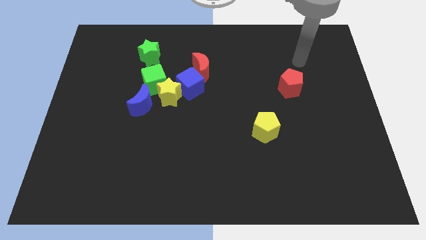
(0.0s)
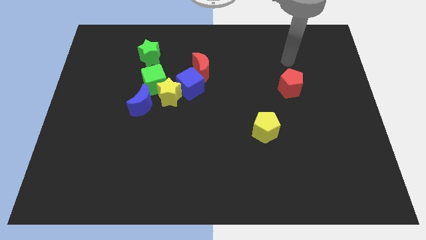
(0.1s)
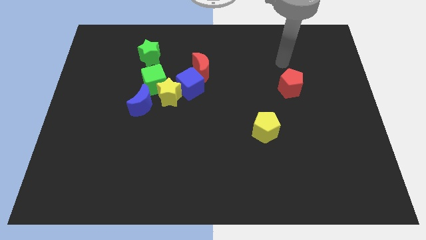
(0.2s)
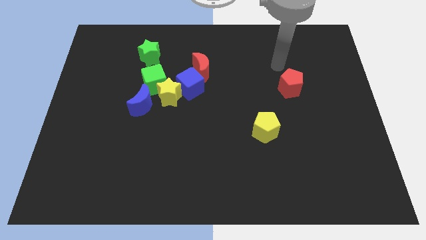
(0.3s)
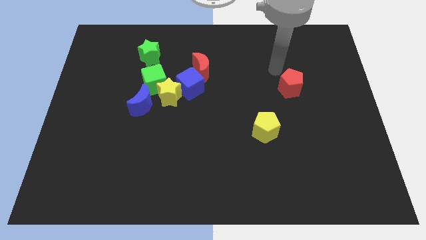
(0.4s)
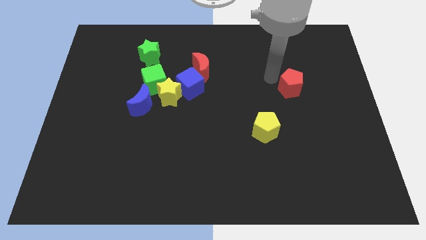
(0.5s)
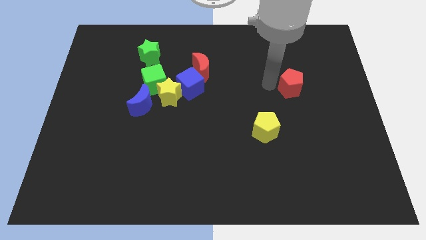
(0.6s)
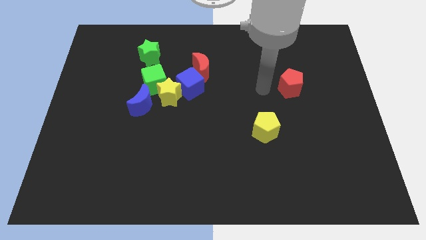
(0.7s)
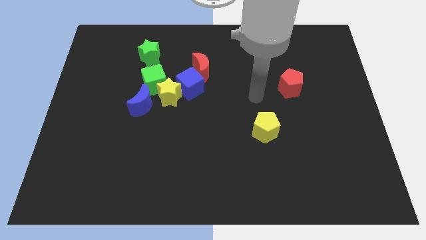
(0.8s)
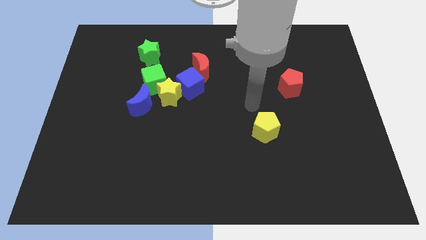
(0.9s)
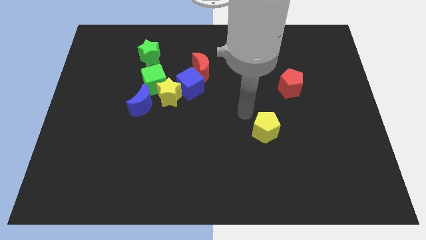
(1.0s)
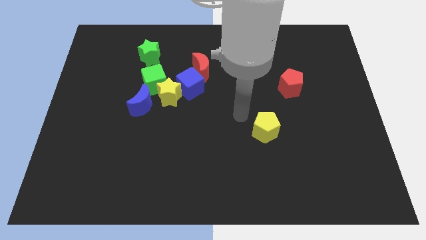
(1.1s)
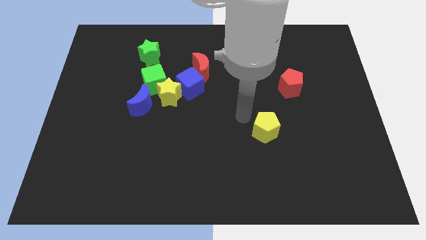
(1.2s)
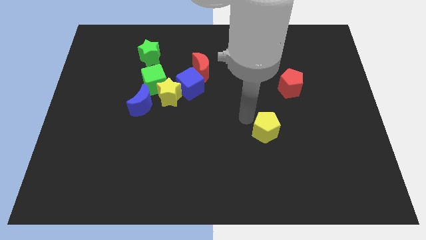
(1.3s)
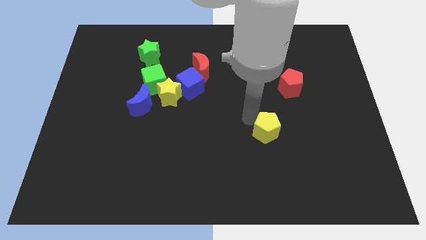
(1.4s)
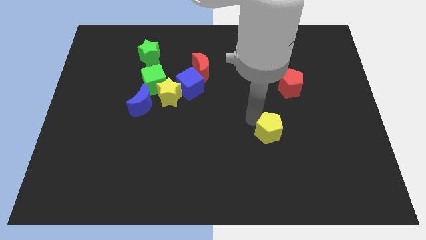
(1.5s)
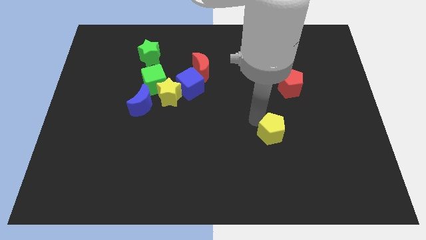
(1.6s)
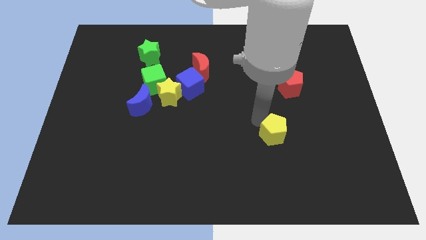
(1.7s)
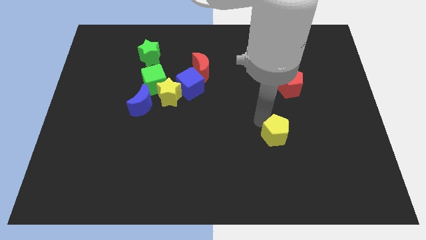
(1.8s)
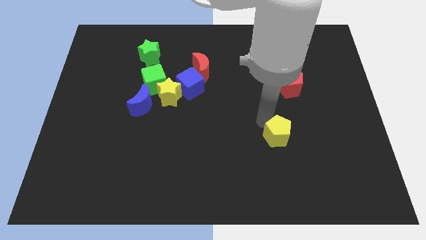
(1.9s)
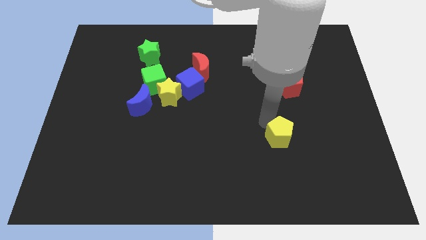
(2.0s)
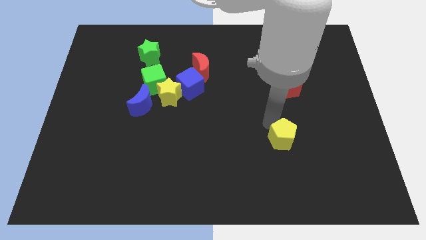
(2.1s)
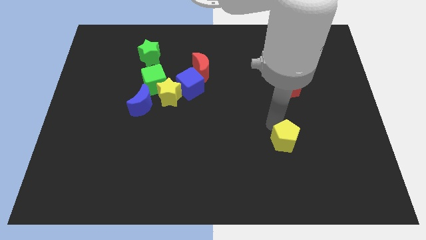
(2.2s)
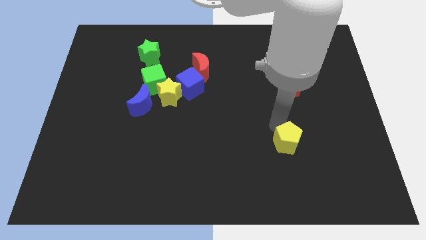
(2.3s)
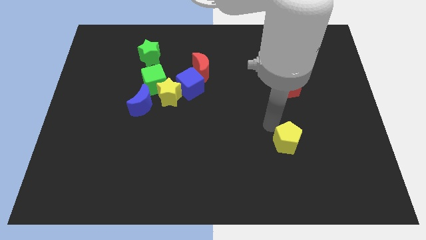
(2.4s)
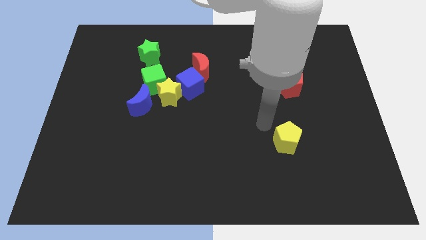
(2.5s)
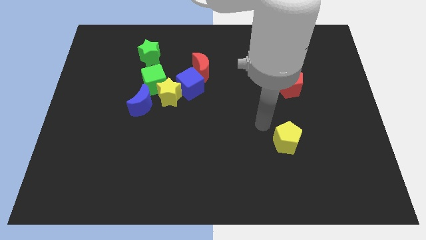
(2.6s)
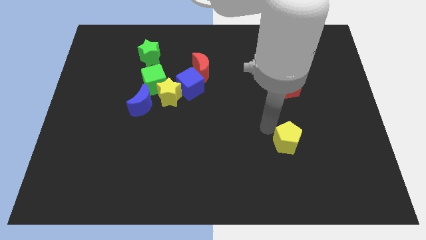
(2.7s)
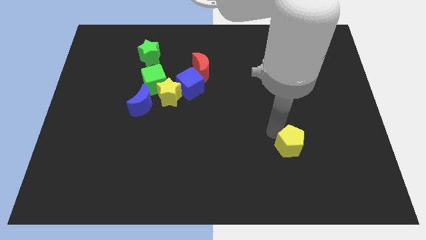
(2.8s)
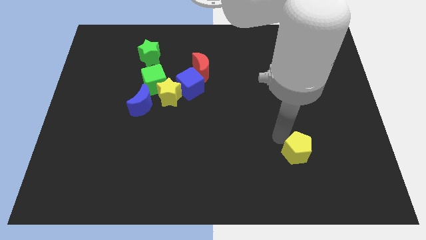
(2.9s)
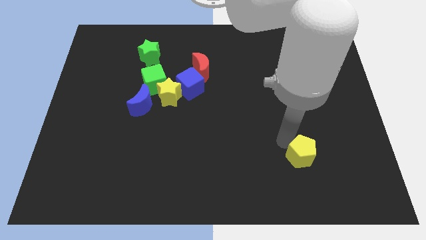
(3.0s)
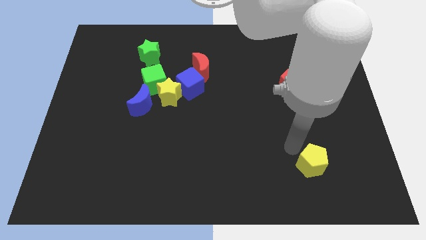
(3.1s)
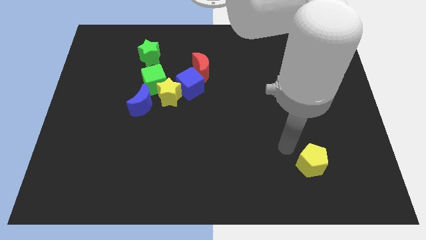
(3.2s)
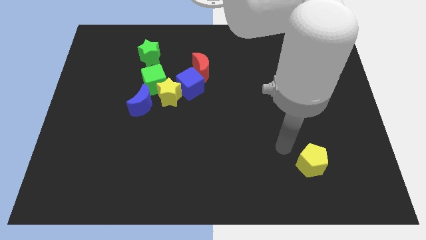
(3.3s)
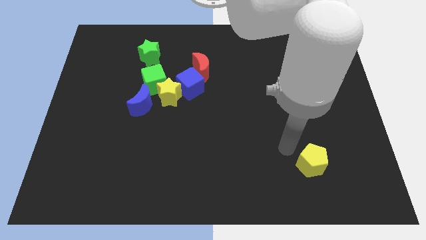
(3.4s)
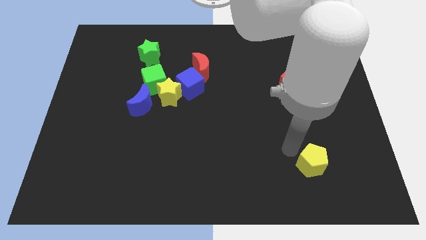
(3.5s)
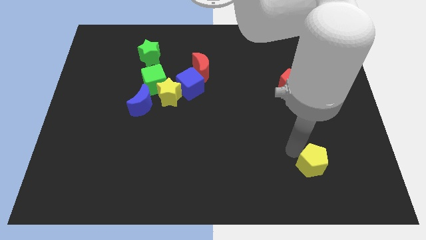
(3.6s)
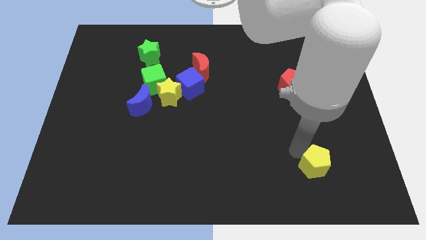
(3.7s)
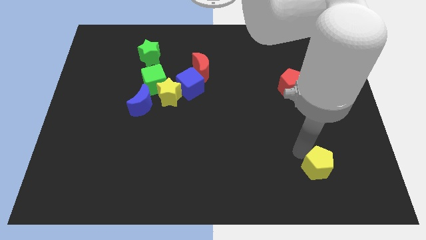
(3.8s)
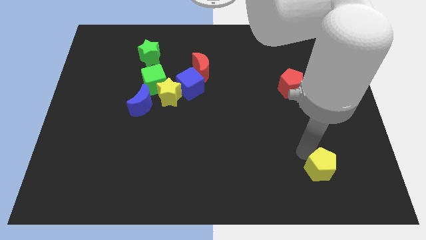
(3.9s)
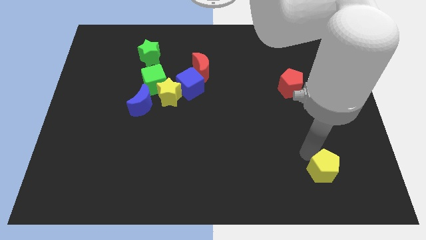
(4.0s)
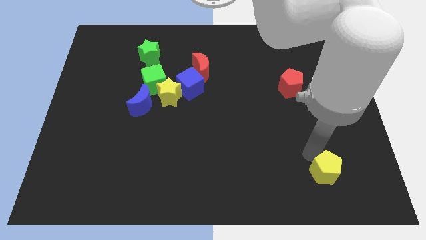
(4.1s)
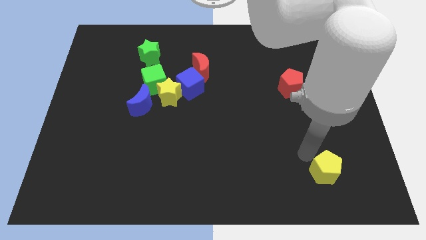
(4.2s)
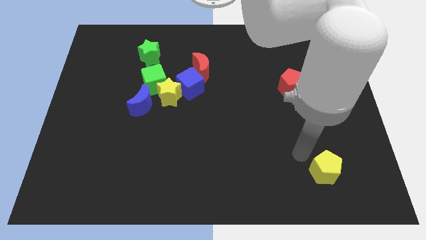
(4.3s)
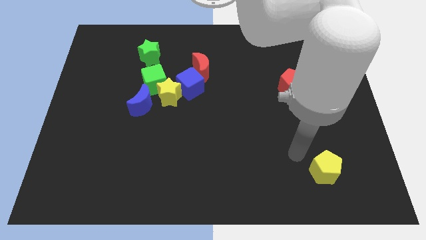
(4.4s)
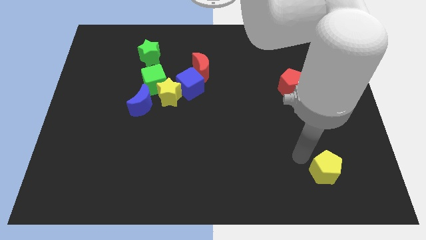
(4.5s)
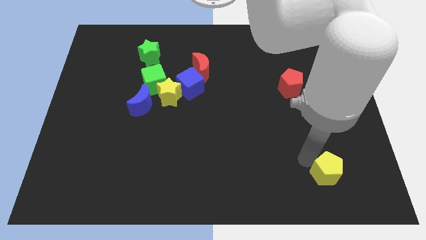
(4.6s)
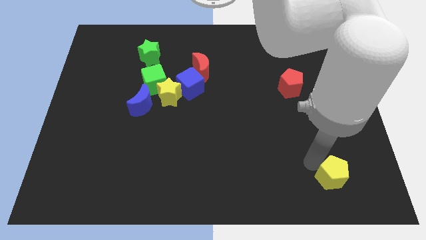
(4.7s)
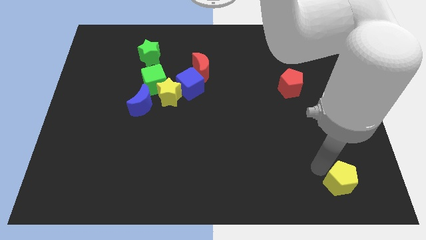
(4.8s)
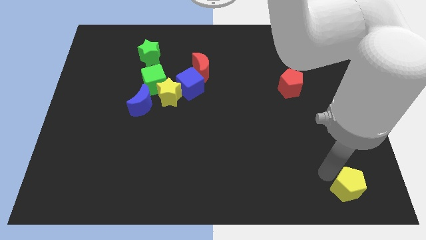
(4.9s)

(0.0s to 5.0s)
move the yellow pentagon to the bottom right corner

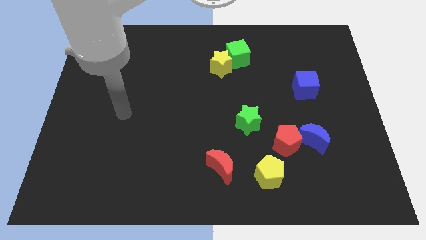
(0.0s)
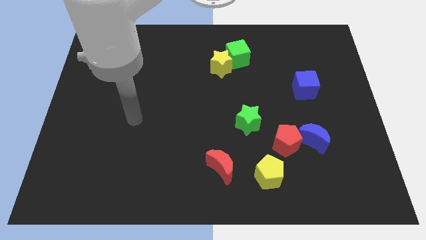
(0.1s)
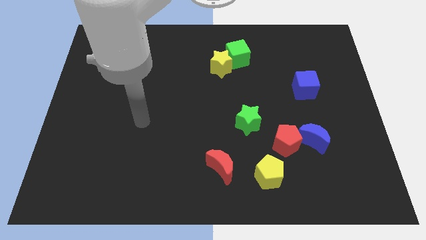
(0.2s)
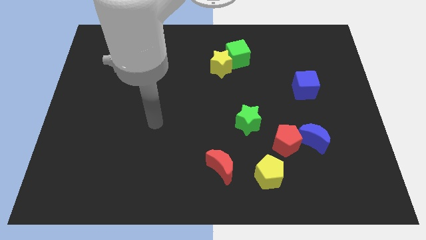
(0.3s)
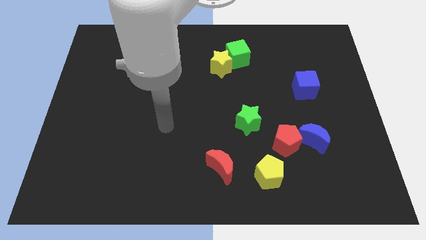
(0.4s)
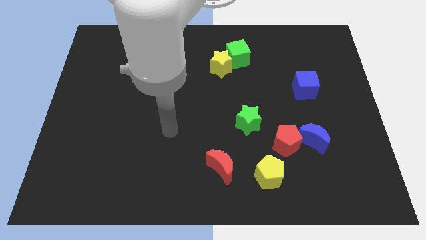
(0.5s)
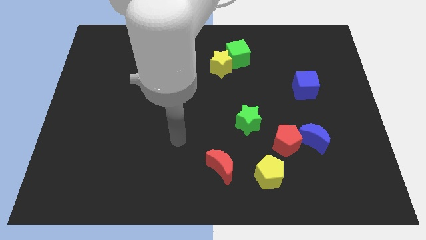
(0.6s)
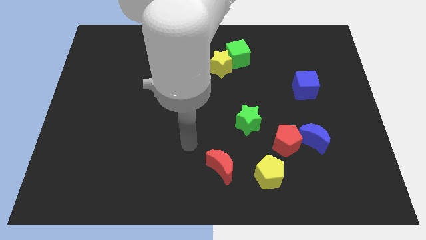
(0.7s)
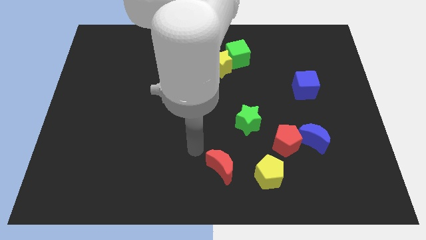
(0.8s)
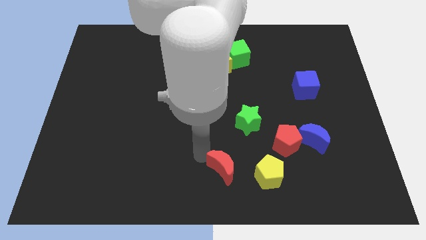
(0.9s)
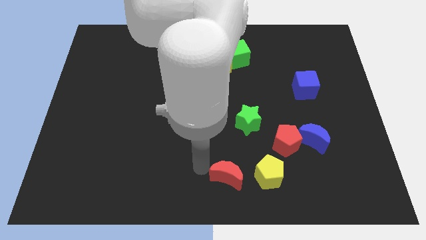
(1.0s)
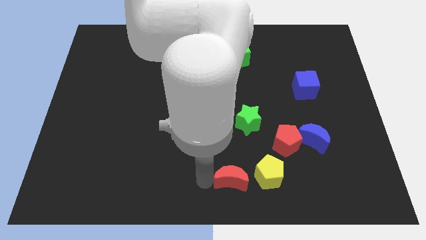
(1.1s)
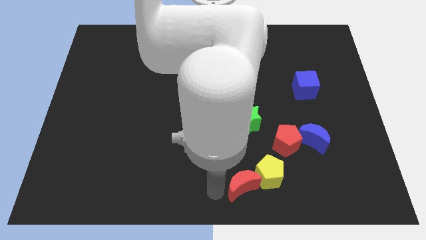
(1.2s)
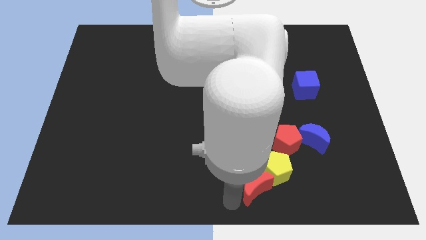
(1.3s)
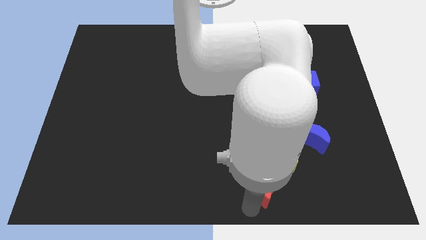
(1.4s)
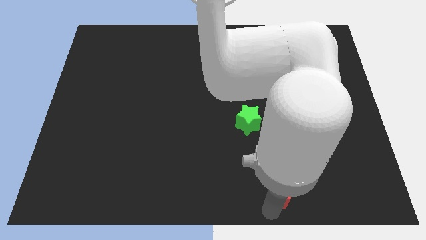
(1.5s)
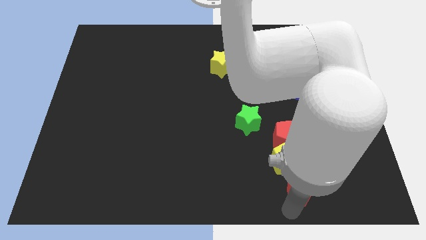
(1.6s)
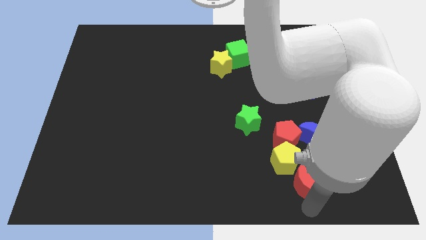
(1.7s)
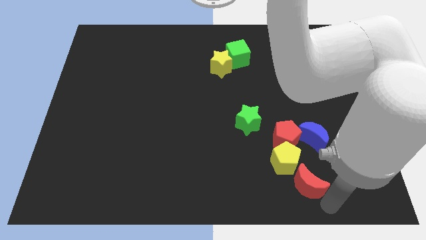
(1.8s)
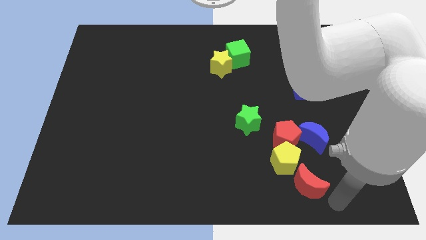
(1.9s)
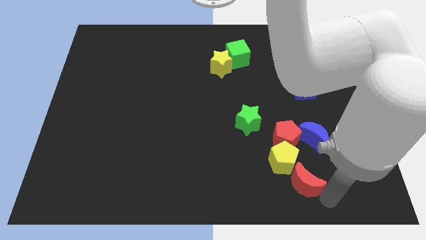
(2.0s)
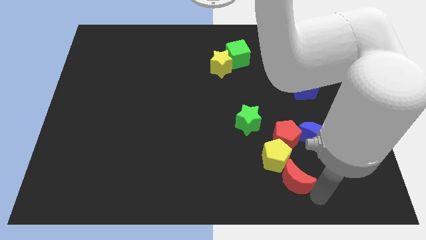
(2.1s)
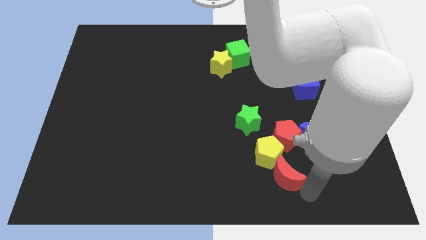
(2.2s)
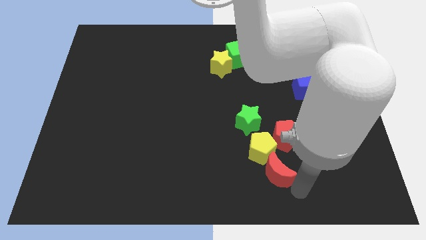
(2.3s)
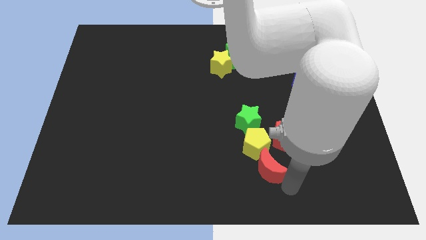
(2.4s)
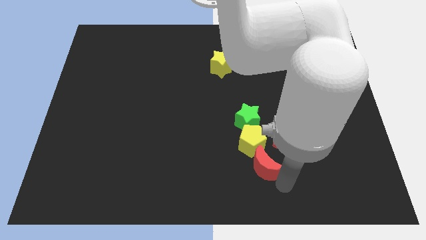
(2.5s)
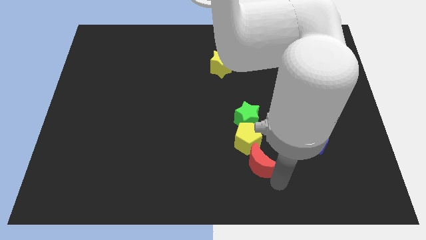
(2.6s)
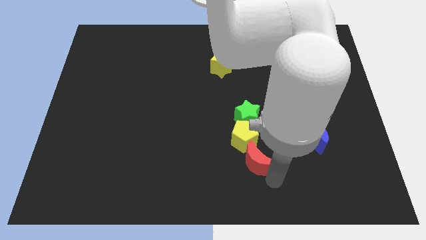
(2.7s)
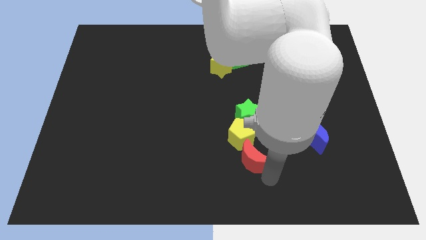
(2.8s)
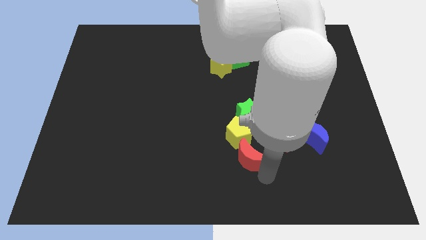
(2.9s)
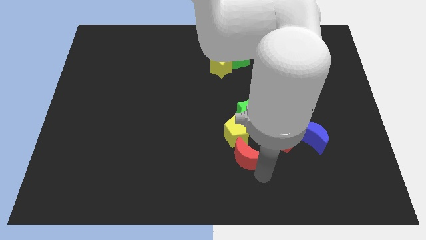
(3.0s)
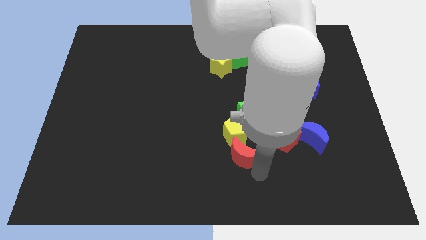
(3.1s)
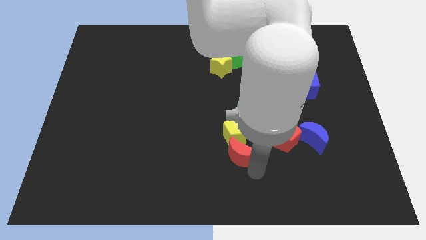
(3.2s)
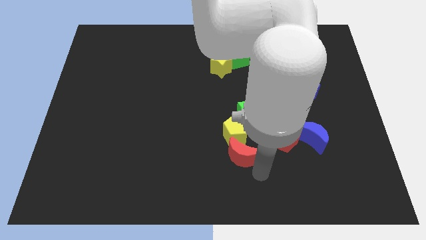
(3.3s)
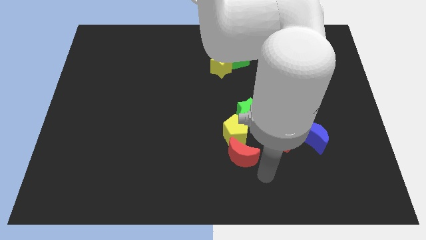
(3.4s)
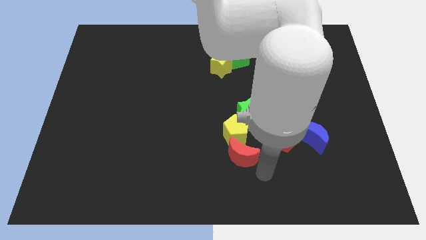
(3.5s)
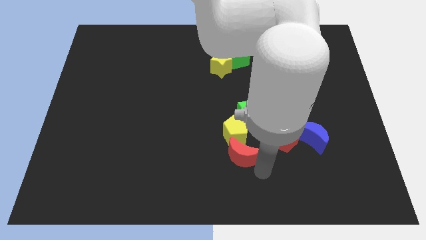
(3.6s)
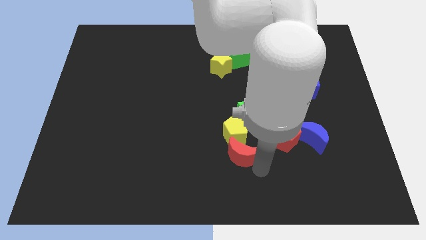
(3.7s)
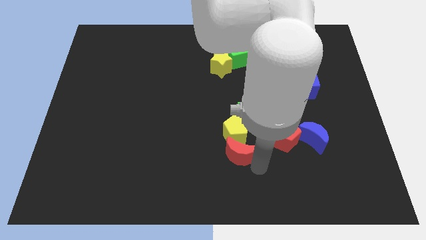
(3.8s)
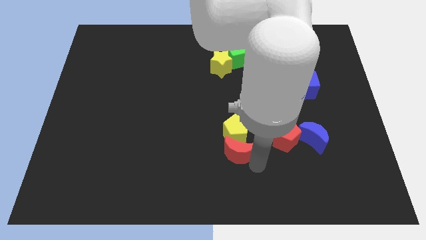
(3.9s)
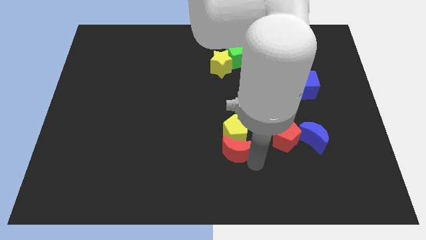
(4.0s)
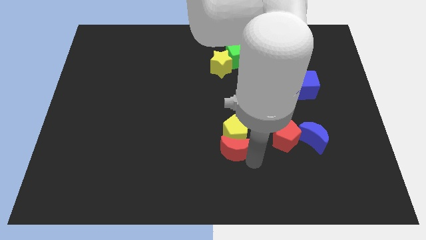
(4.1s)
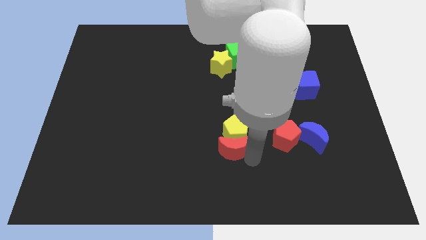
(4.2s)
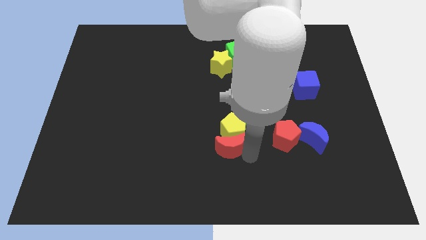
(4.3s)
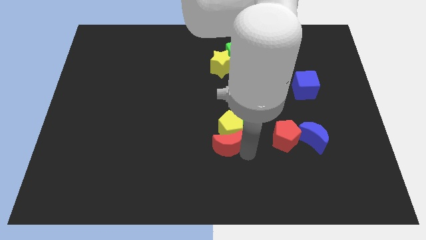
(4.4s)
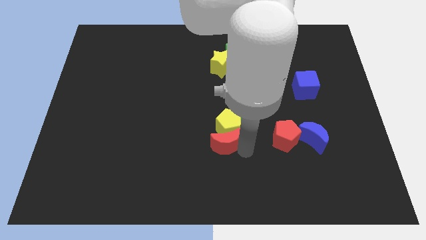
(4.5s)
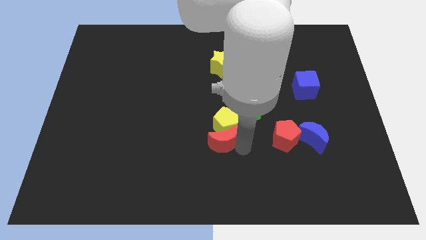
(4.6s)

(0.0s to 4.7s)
move the red moon to the middle of the board
